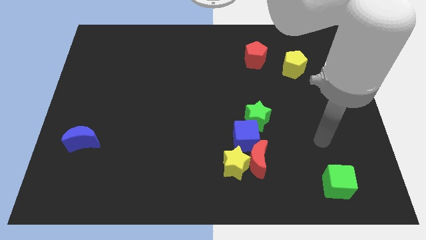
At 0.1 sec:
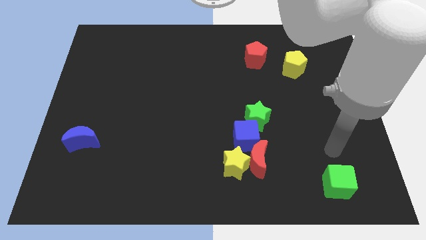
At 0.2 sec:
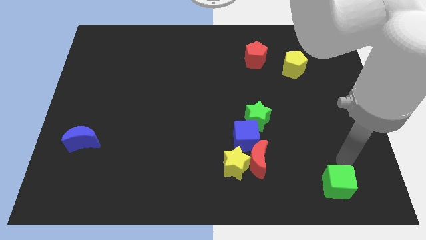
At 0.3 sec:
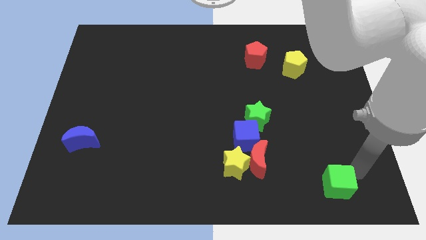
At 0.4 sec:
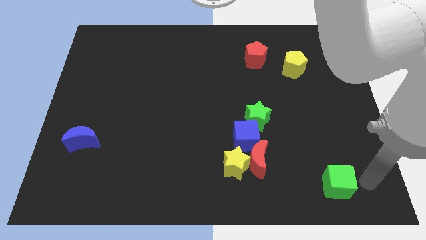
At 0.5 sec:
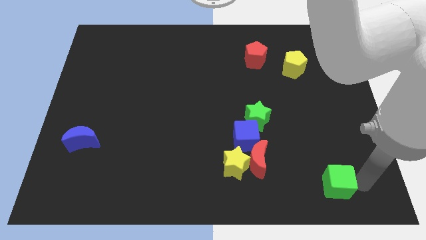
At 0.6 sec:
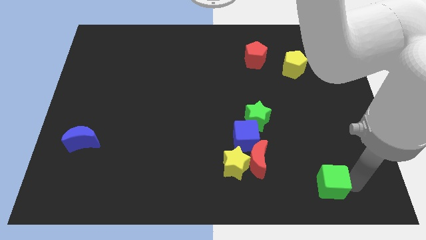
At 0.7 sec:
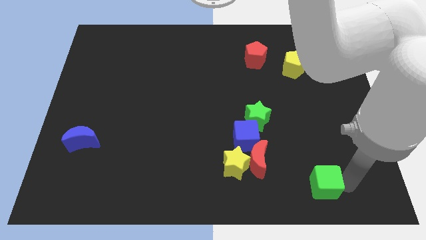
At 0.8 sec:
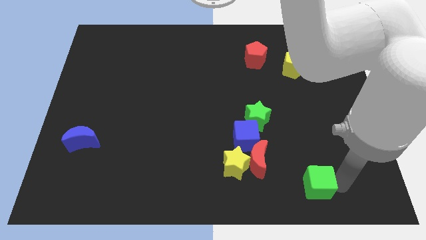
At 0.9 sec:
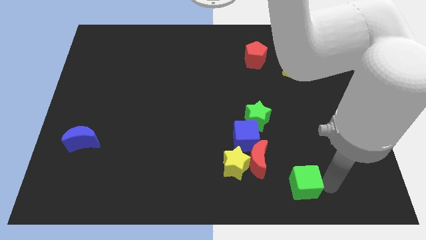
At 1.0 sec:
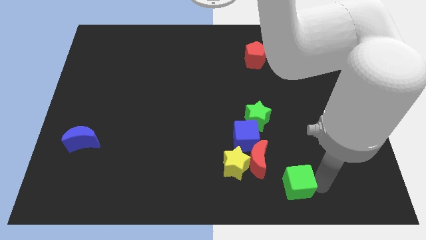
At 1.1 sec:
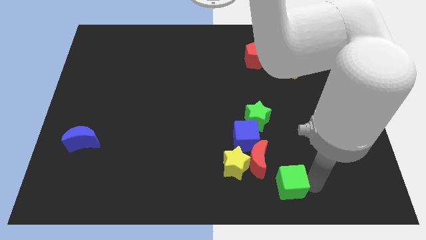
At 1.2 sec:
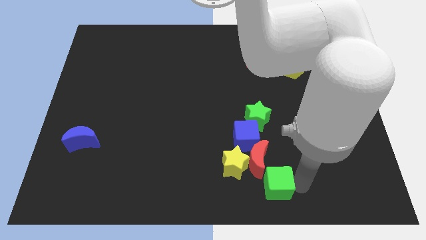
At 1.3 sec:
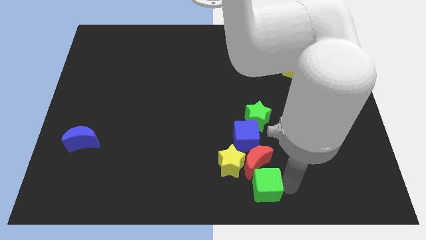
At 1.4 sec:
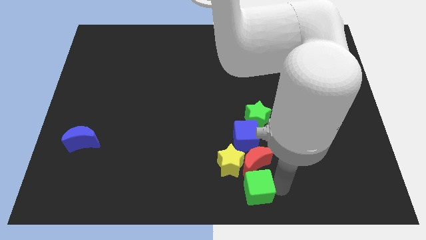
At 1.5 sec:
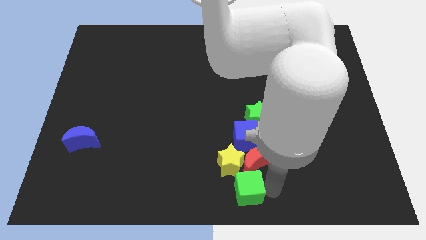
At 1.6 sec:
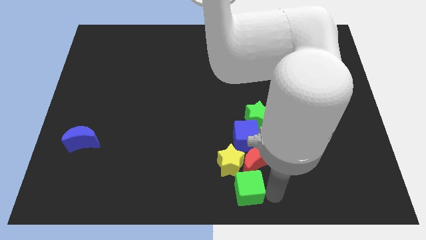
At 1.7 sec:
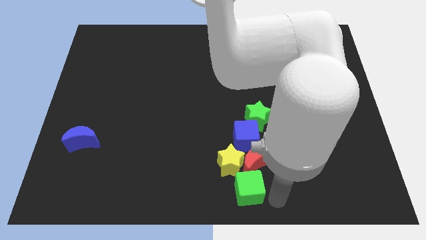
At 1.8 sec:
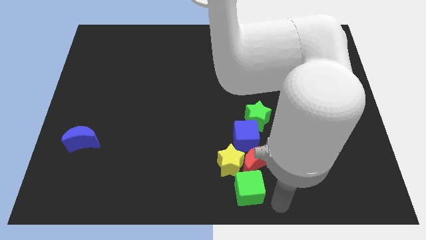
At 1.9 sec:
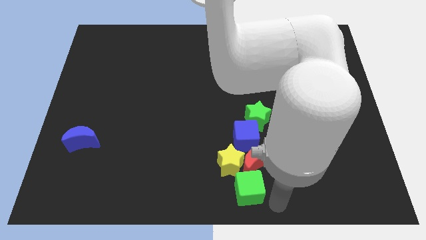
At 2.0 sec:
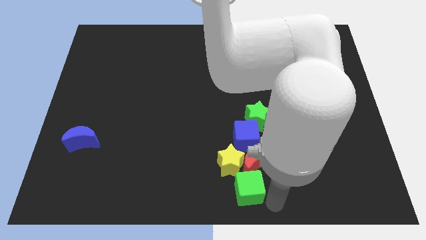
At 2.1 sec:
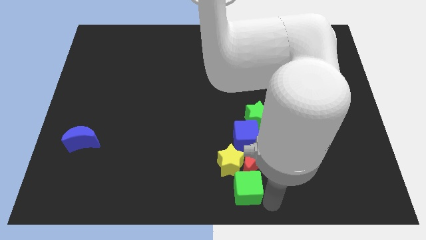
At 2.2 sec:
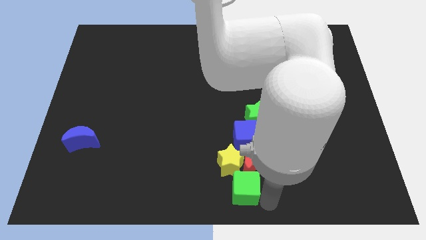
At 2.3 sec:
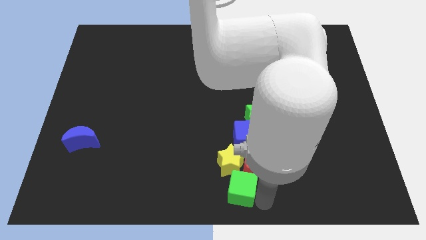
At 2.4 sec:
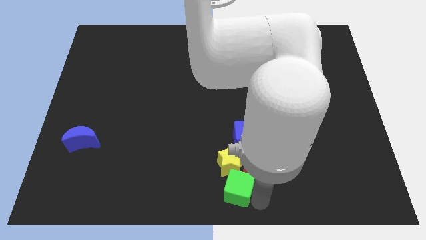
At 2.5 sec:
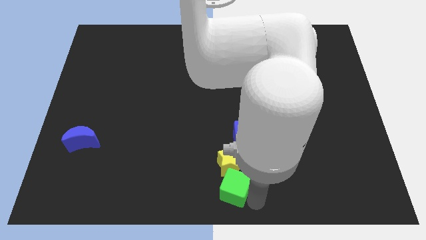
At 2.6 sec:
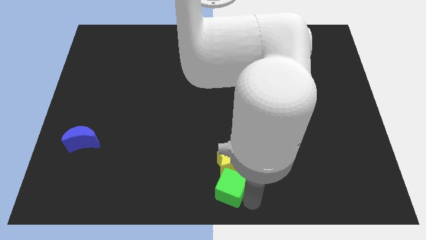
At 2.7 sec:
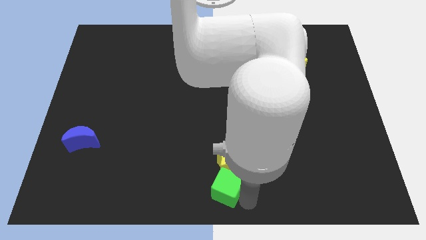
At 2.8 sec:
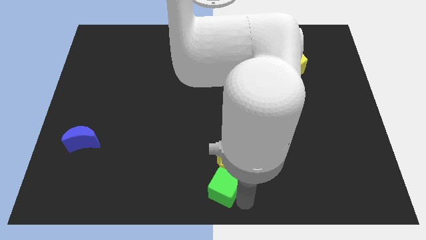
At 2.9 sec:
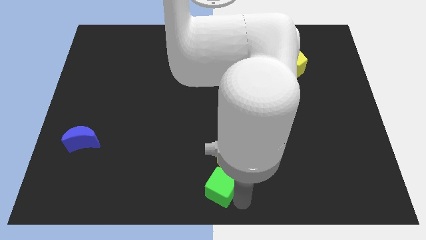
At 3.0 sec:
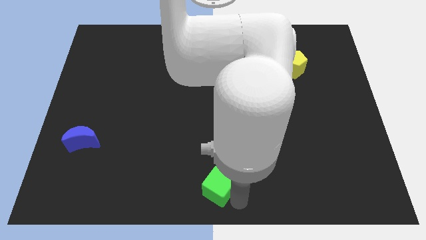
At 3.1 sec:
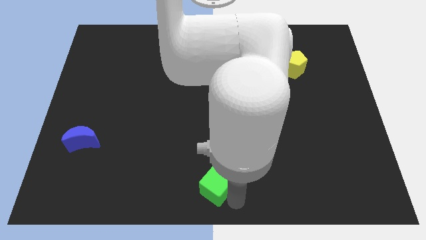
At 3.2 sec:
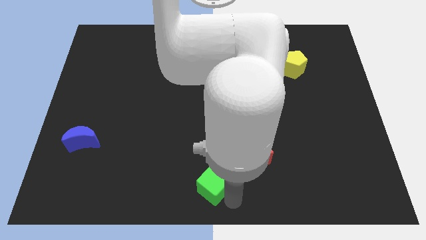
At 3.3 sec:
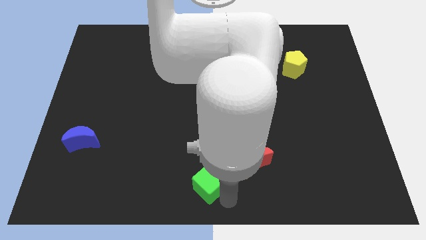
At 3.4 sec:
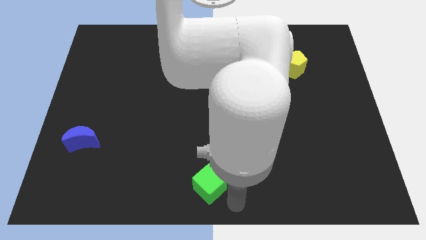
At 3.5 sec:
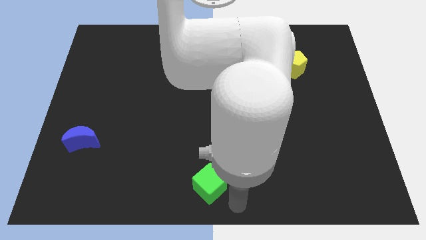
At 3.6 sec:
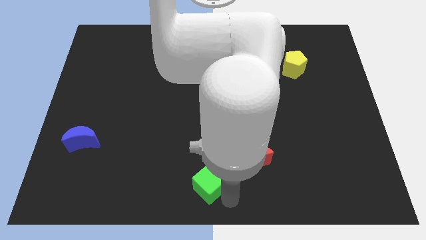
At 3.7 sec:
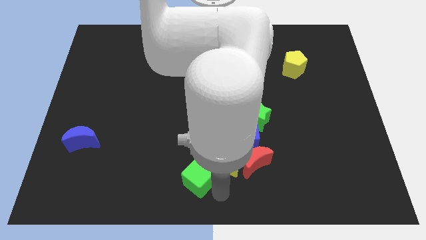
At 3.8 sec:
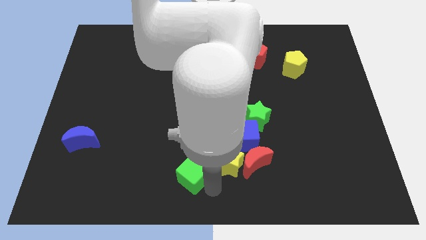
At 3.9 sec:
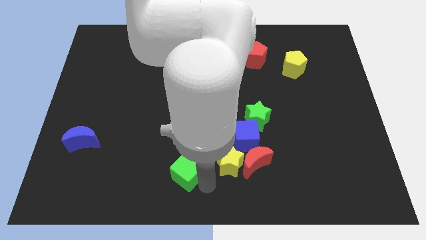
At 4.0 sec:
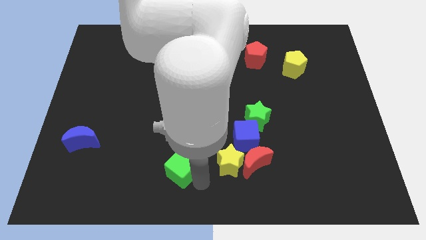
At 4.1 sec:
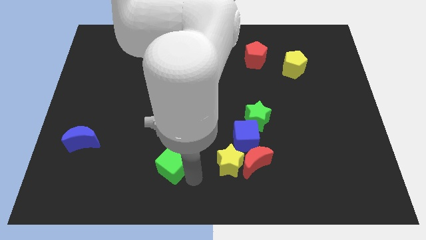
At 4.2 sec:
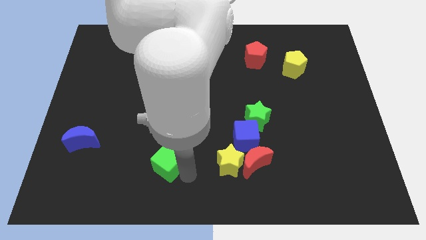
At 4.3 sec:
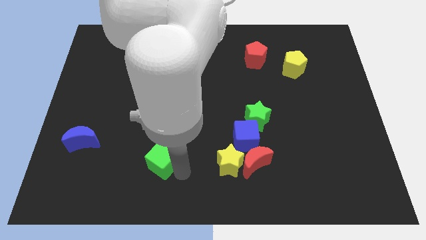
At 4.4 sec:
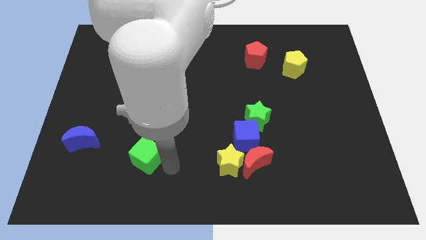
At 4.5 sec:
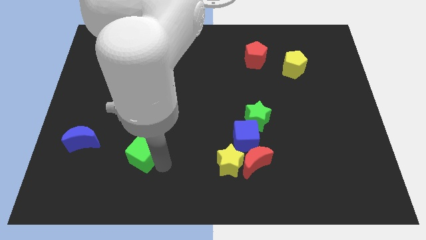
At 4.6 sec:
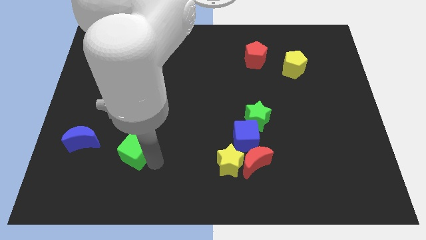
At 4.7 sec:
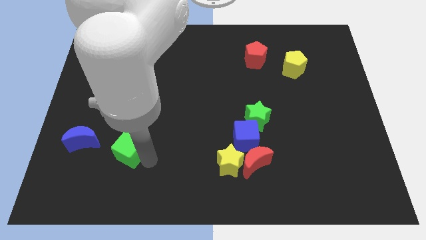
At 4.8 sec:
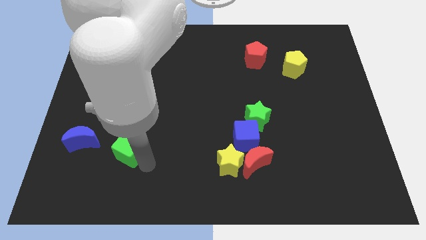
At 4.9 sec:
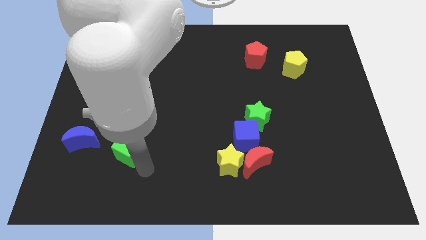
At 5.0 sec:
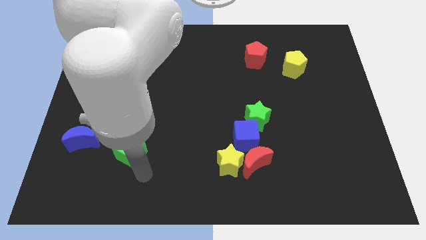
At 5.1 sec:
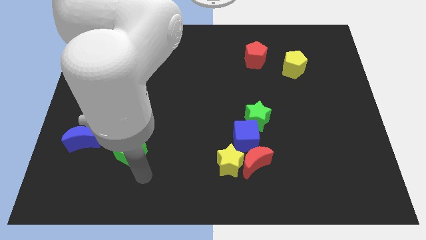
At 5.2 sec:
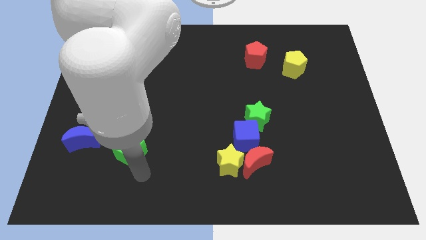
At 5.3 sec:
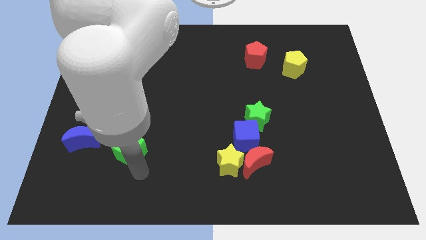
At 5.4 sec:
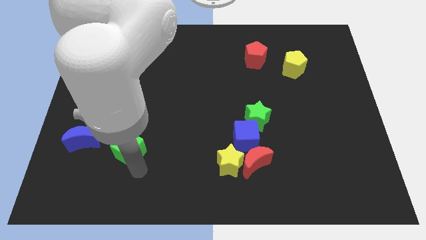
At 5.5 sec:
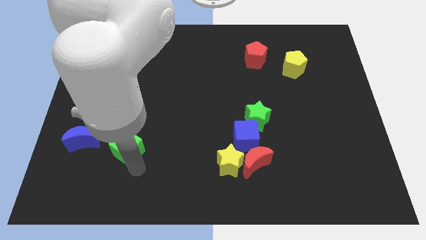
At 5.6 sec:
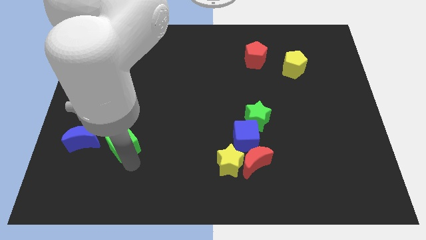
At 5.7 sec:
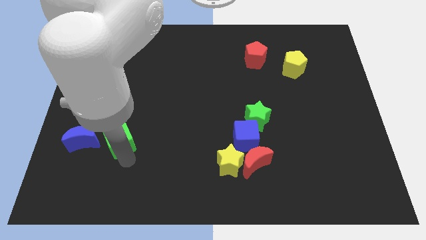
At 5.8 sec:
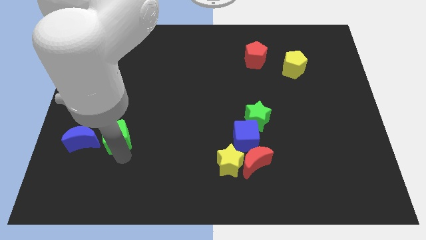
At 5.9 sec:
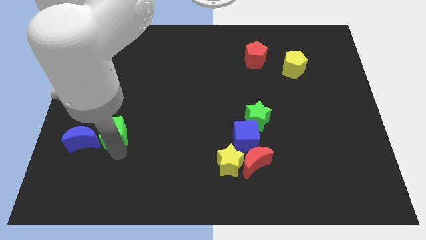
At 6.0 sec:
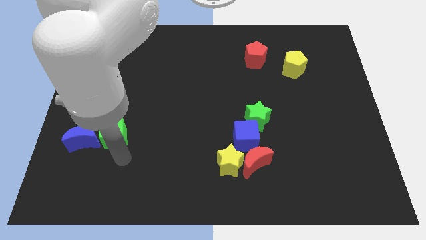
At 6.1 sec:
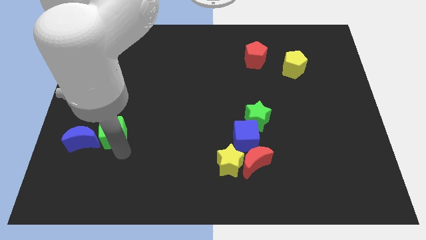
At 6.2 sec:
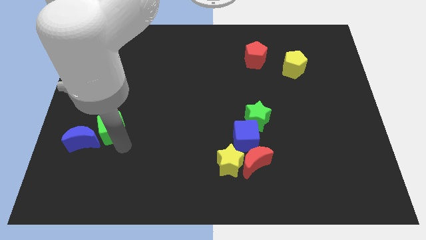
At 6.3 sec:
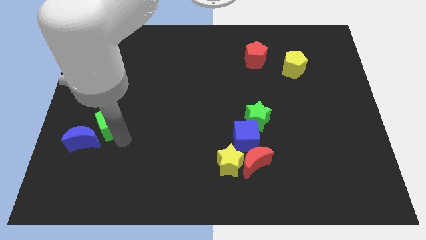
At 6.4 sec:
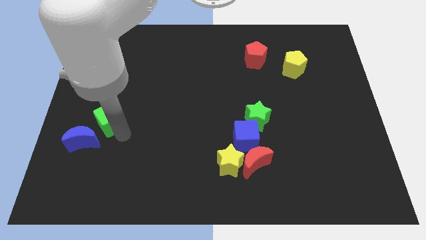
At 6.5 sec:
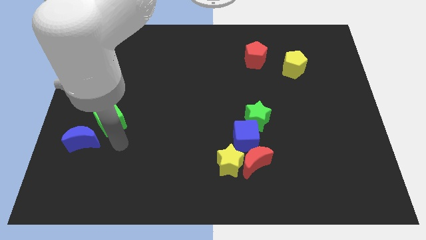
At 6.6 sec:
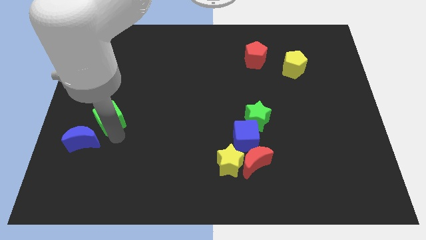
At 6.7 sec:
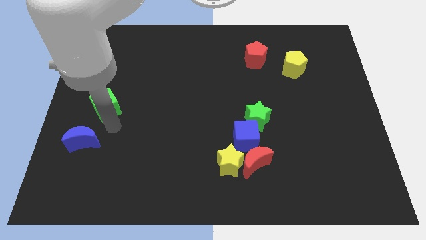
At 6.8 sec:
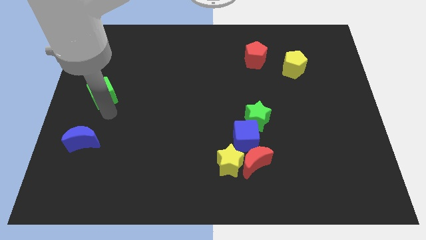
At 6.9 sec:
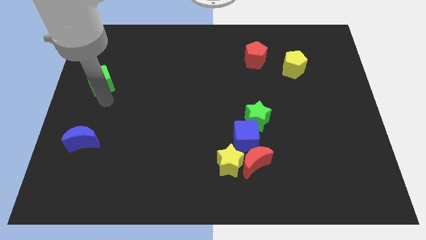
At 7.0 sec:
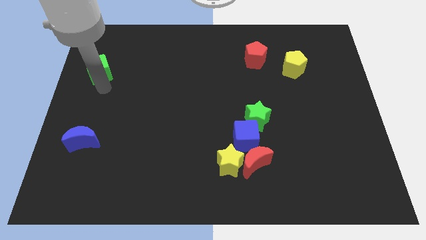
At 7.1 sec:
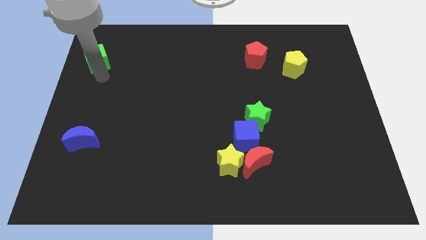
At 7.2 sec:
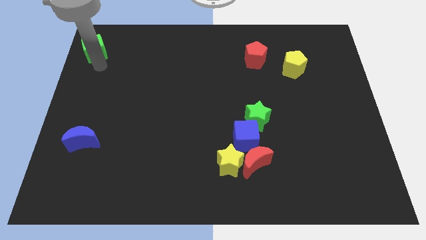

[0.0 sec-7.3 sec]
push the green cube to the top left
